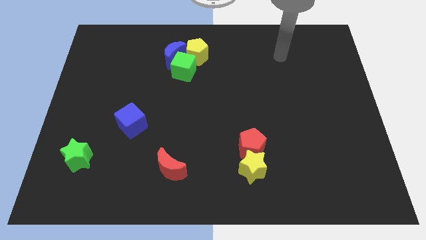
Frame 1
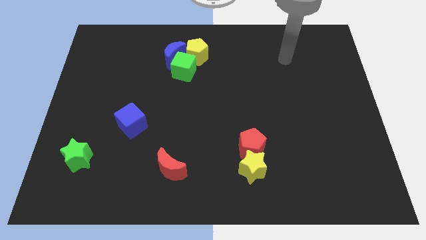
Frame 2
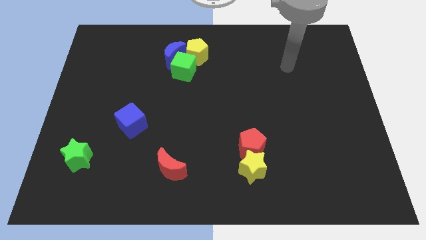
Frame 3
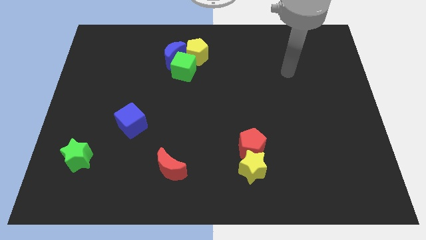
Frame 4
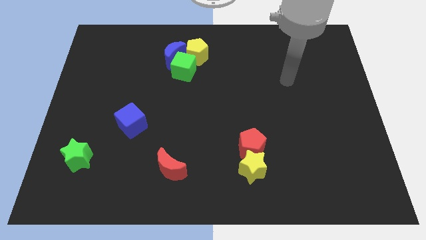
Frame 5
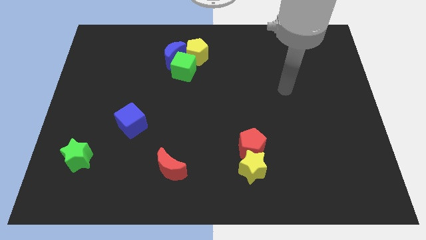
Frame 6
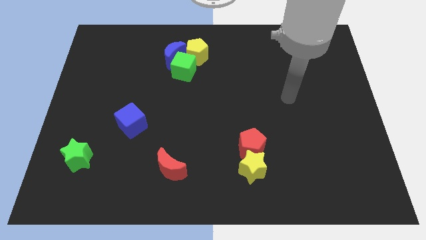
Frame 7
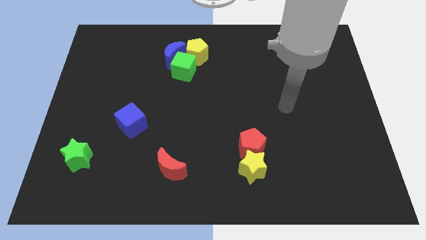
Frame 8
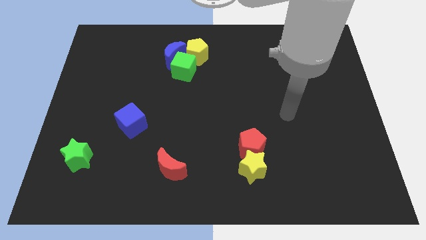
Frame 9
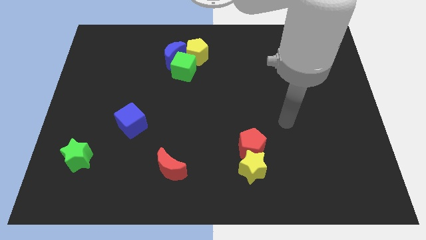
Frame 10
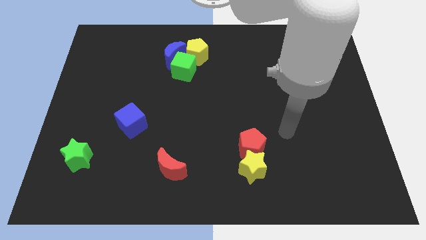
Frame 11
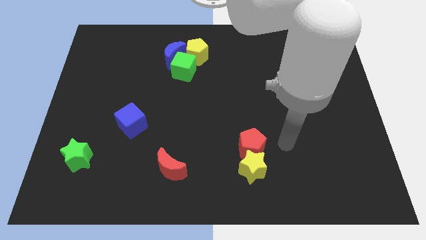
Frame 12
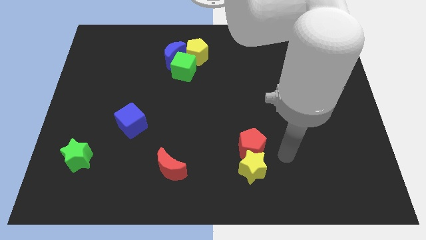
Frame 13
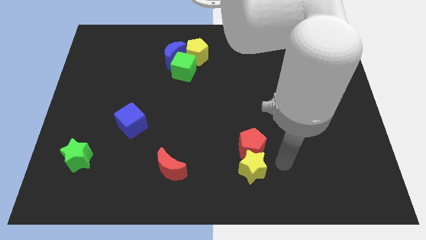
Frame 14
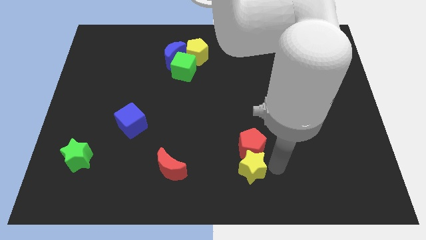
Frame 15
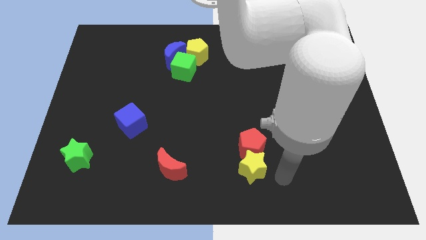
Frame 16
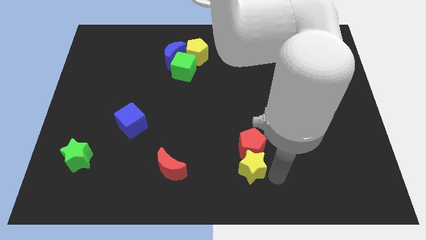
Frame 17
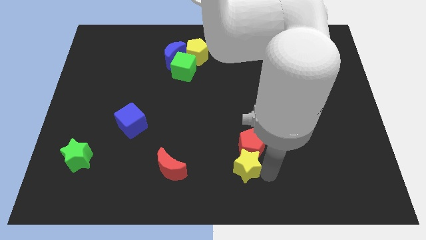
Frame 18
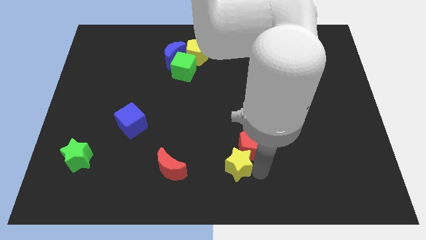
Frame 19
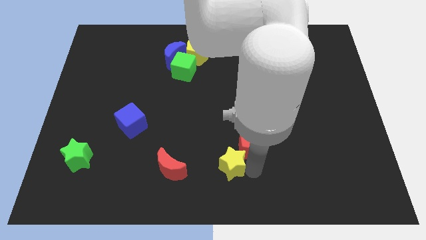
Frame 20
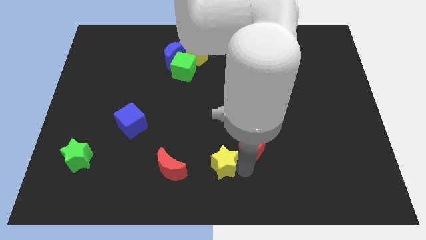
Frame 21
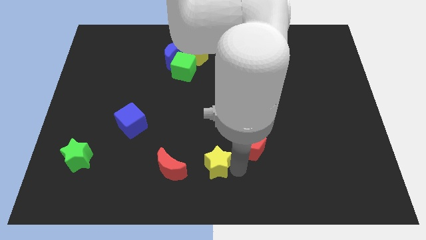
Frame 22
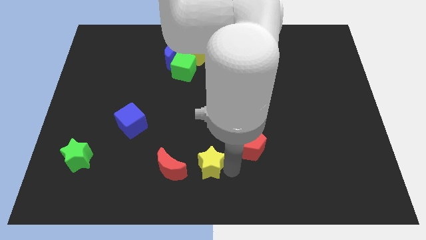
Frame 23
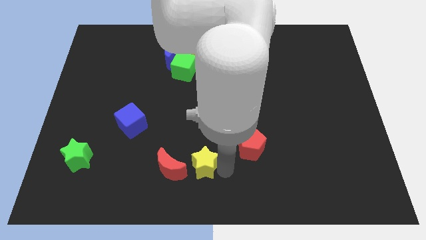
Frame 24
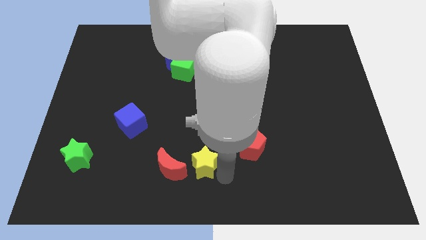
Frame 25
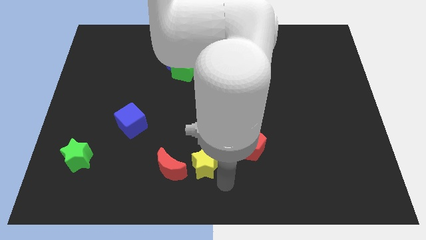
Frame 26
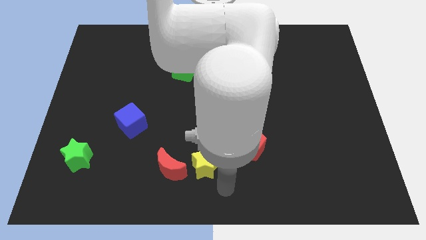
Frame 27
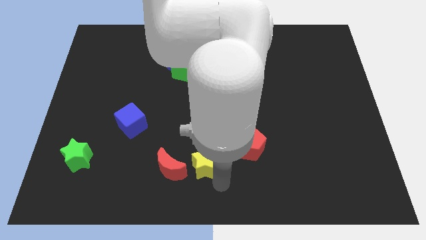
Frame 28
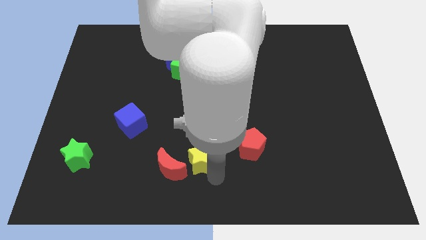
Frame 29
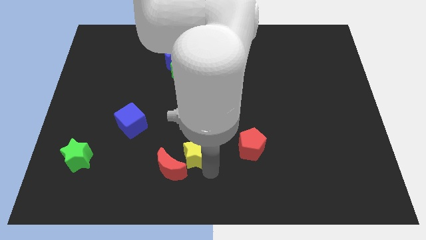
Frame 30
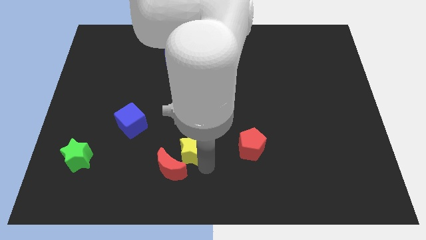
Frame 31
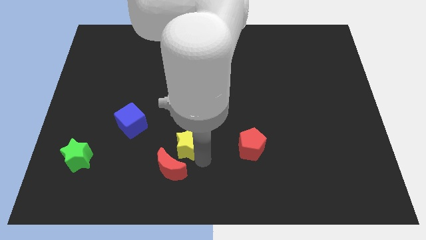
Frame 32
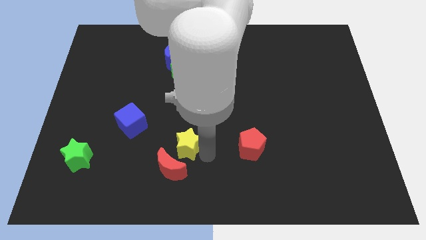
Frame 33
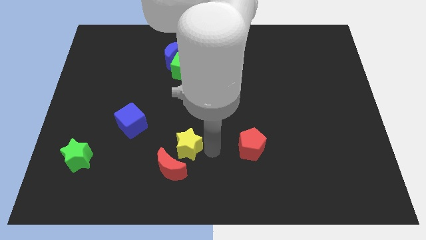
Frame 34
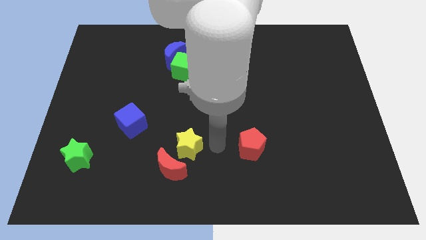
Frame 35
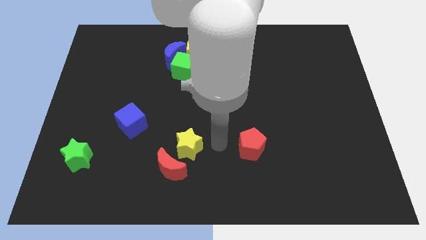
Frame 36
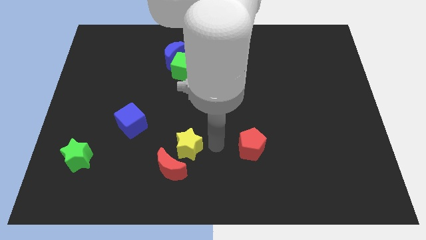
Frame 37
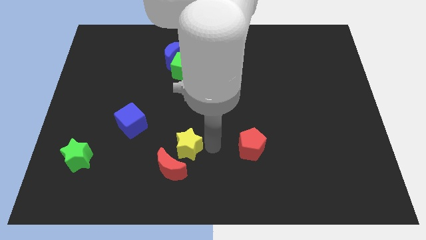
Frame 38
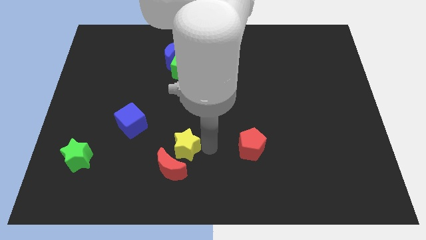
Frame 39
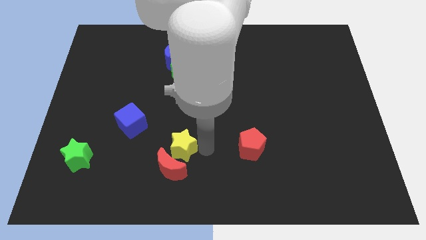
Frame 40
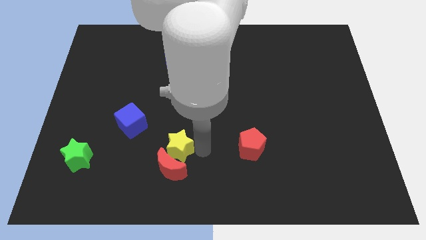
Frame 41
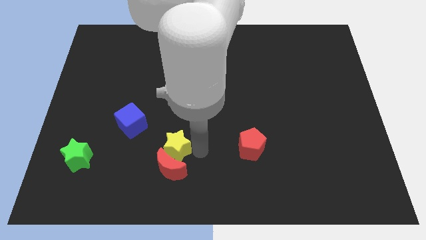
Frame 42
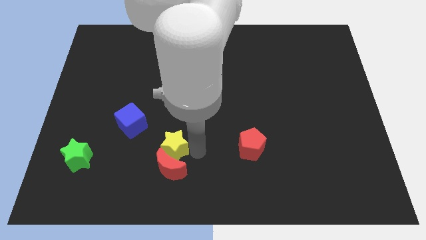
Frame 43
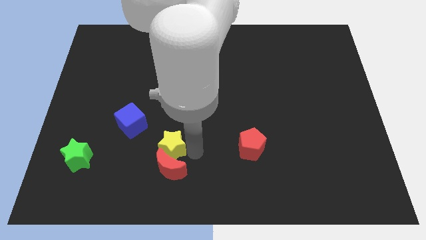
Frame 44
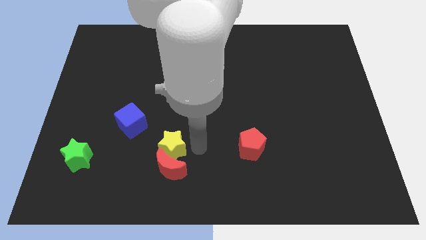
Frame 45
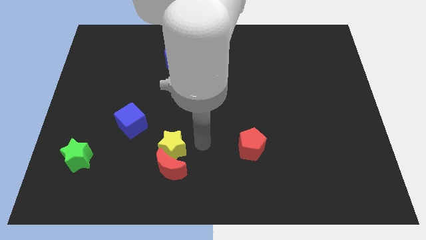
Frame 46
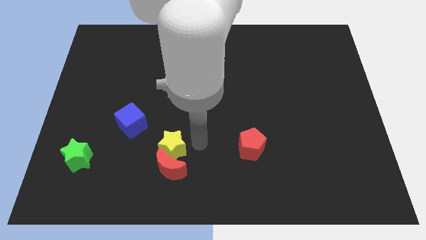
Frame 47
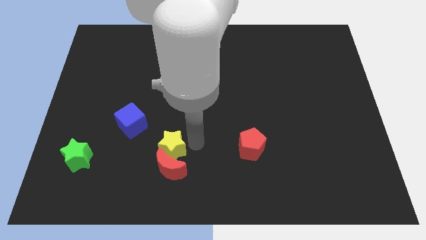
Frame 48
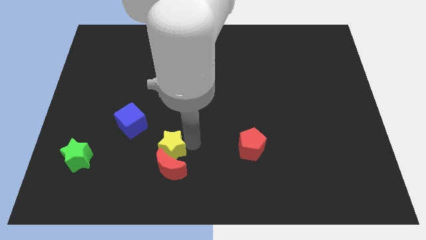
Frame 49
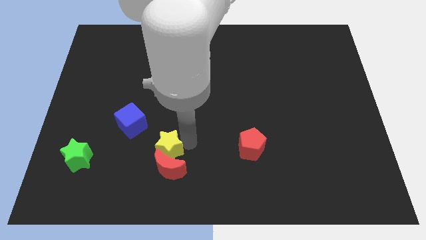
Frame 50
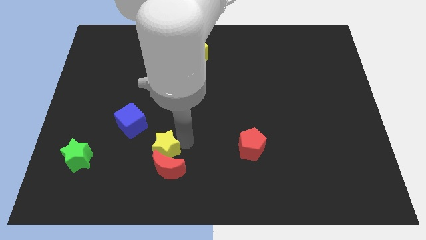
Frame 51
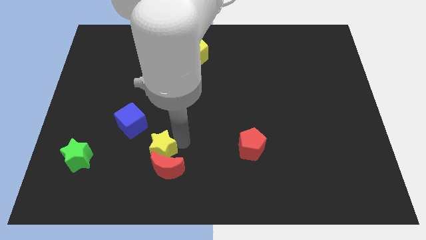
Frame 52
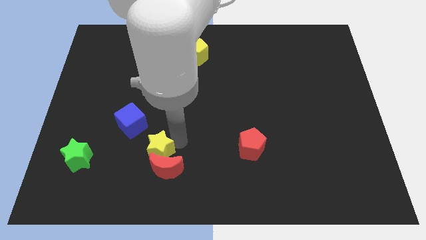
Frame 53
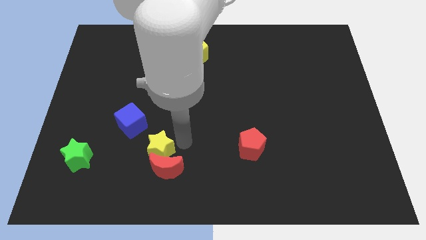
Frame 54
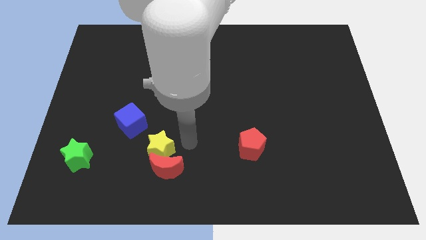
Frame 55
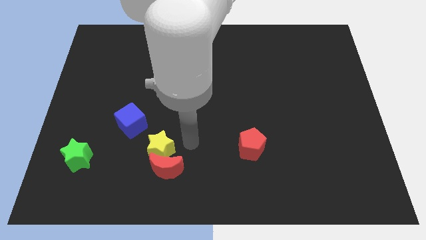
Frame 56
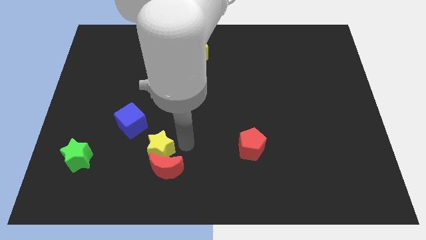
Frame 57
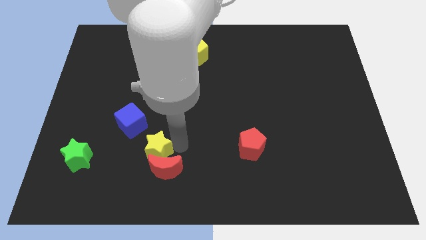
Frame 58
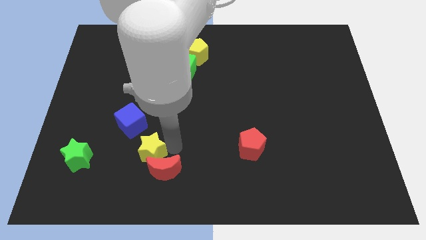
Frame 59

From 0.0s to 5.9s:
move the yellow star to the left

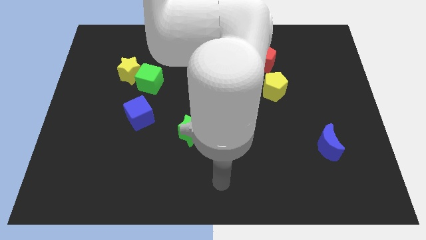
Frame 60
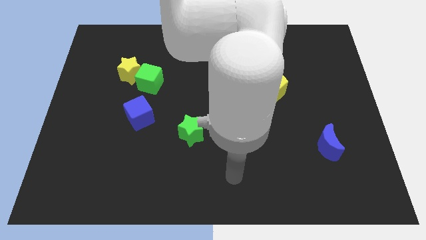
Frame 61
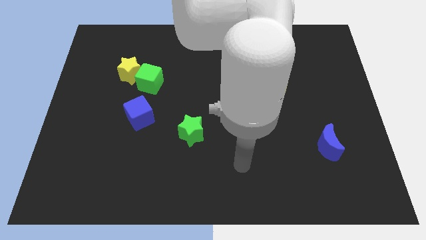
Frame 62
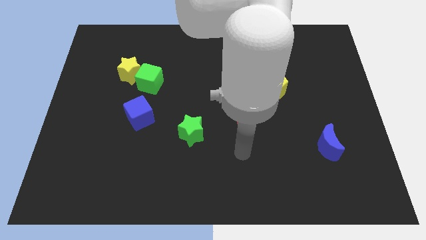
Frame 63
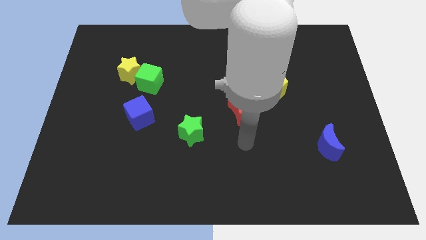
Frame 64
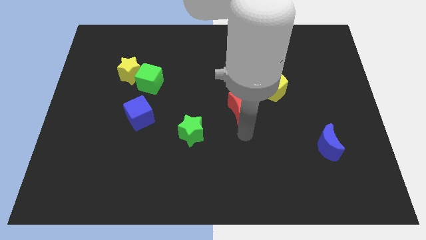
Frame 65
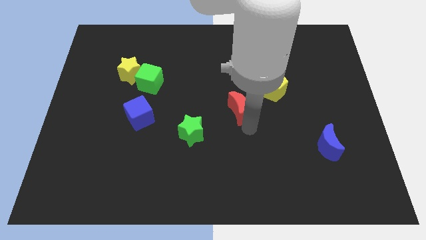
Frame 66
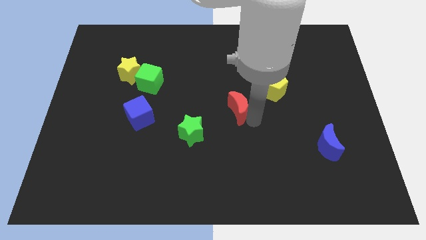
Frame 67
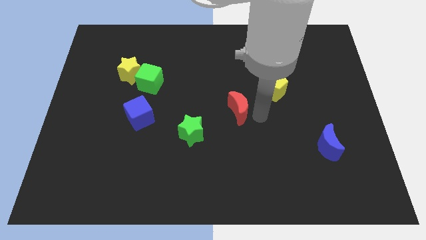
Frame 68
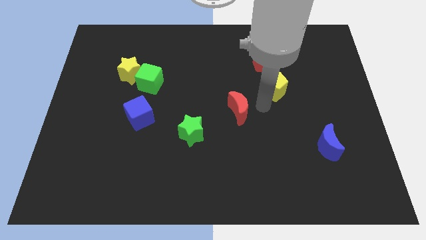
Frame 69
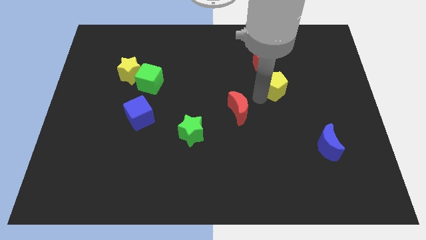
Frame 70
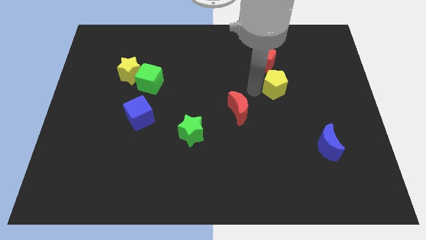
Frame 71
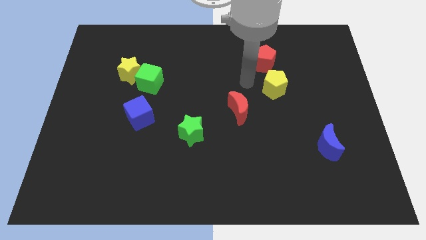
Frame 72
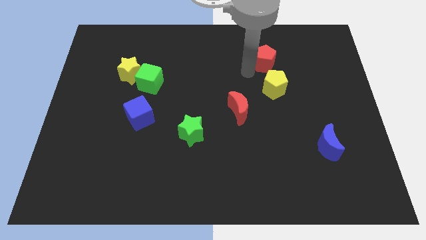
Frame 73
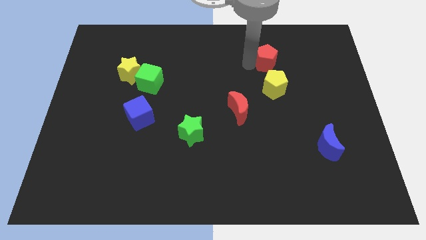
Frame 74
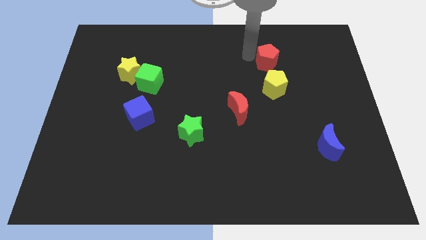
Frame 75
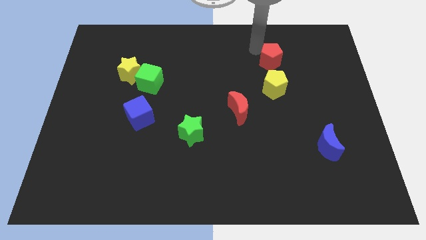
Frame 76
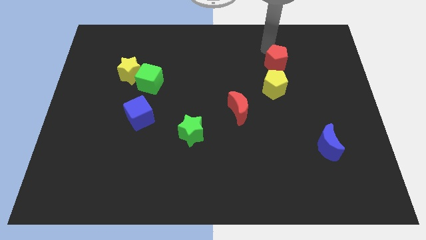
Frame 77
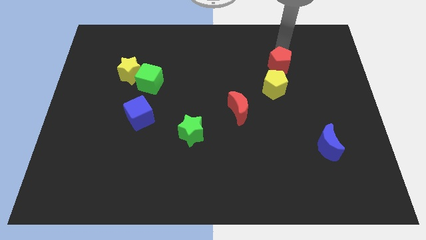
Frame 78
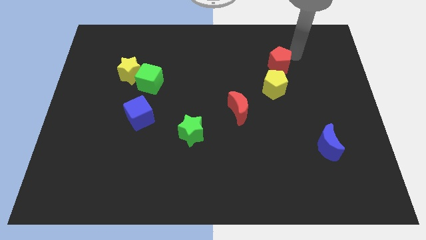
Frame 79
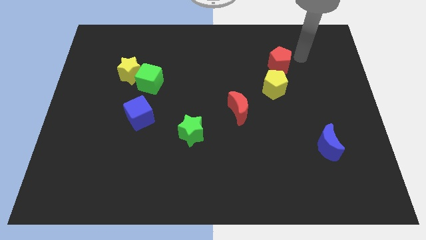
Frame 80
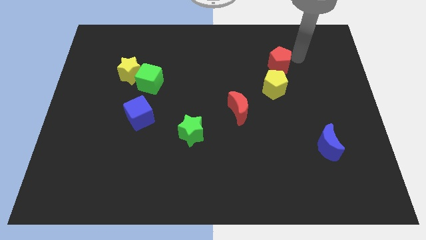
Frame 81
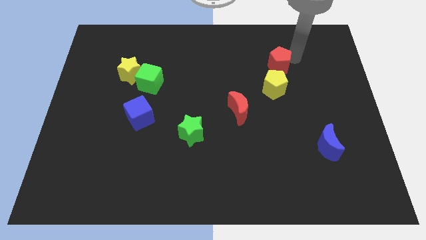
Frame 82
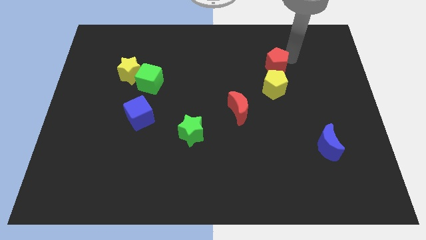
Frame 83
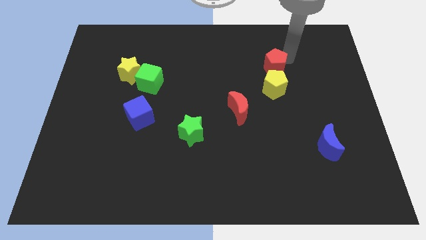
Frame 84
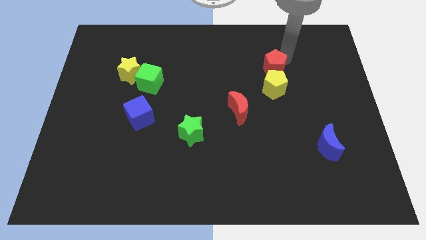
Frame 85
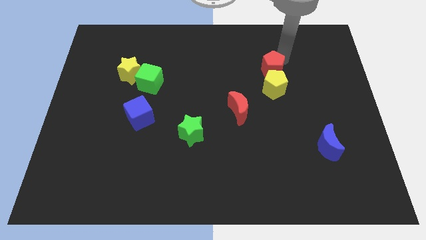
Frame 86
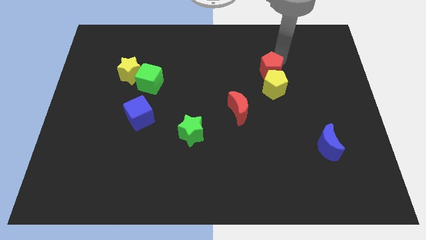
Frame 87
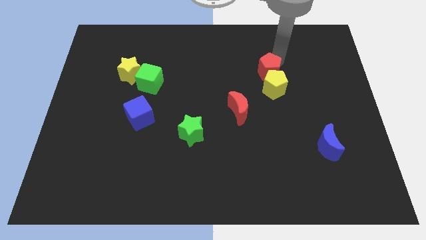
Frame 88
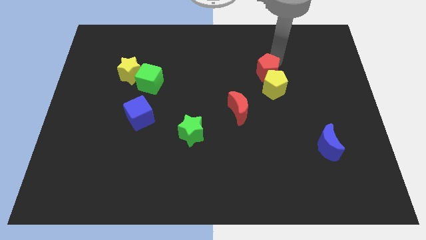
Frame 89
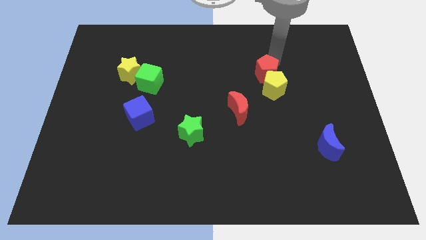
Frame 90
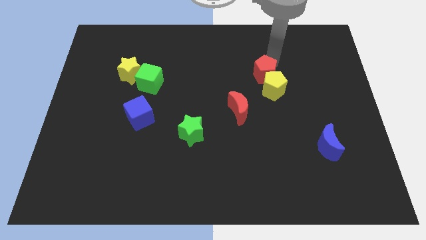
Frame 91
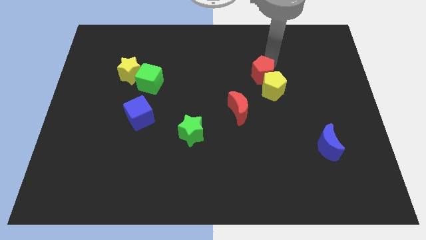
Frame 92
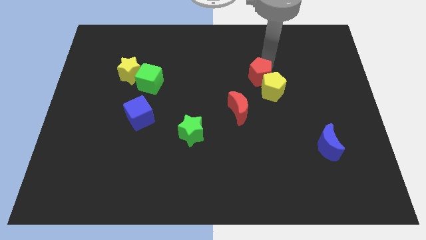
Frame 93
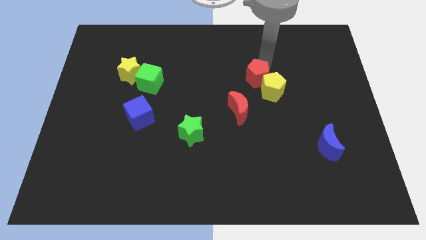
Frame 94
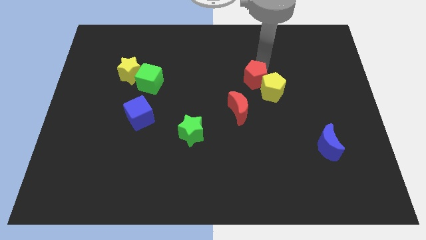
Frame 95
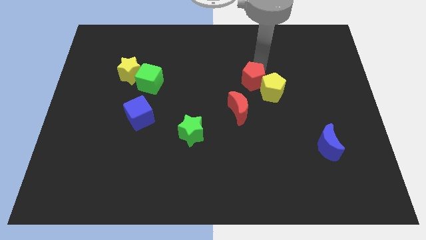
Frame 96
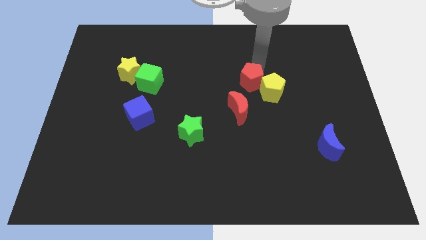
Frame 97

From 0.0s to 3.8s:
move the red pentagon a little bit downwards and then to the left
